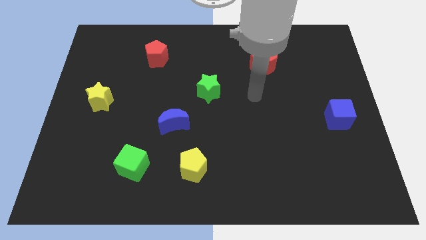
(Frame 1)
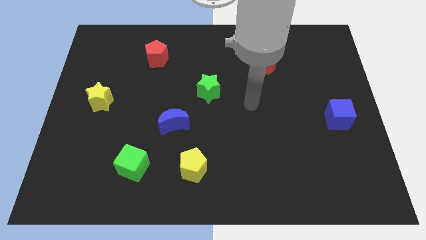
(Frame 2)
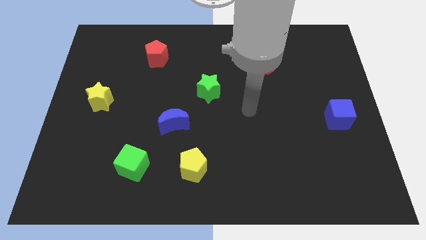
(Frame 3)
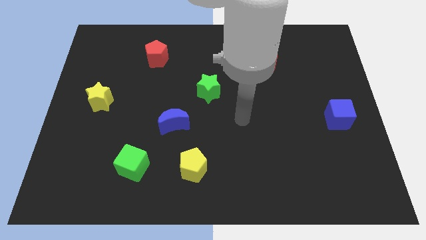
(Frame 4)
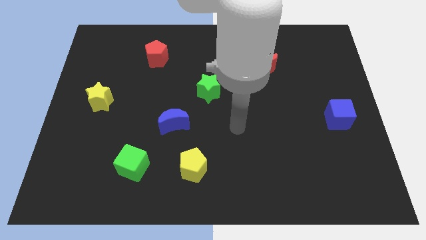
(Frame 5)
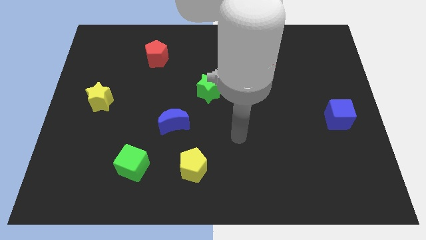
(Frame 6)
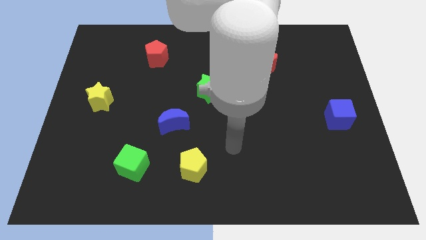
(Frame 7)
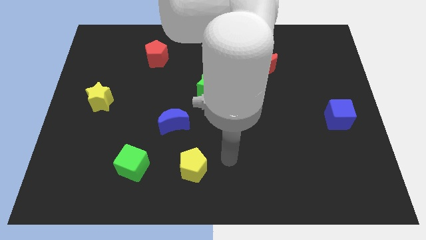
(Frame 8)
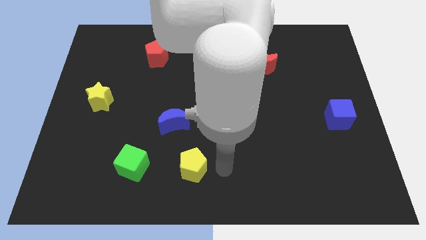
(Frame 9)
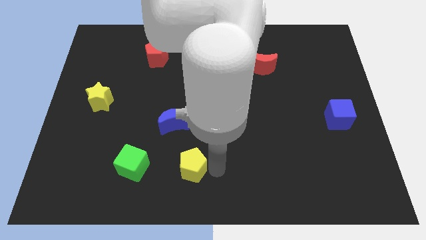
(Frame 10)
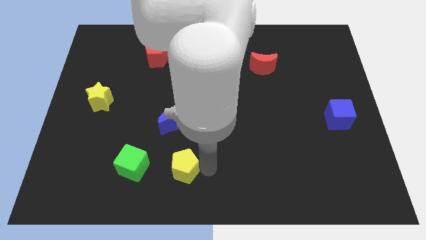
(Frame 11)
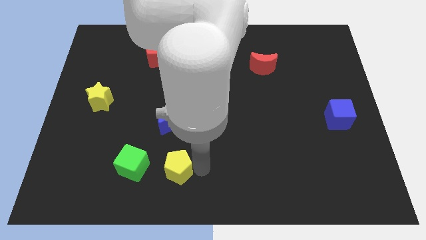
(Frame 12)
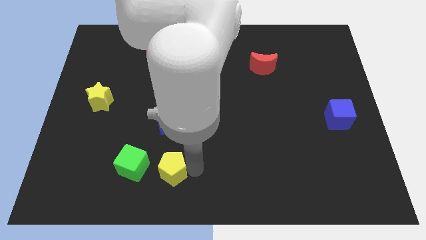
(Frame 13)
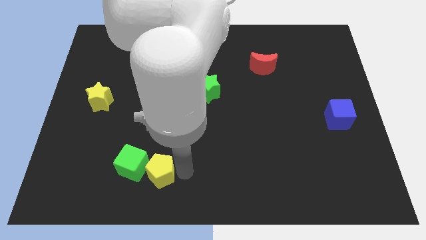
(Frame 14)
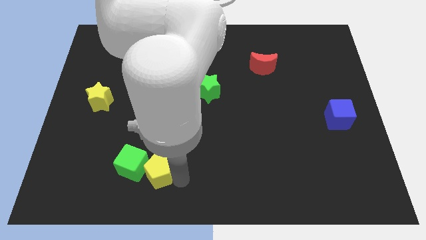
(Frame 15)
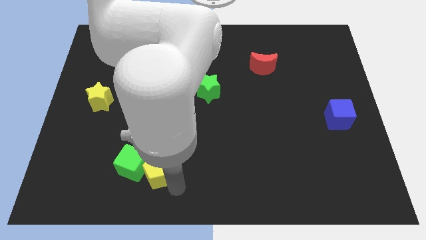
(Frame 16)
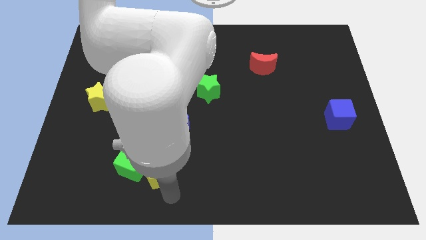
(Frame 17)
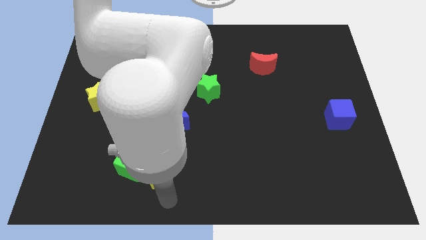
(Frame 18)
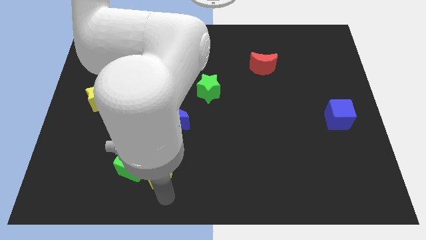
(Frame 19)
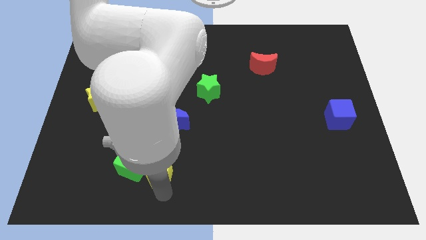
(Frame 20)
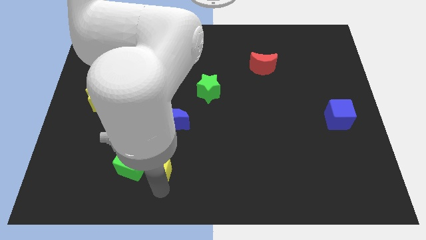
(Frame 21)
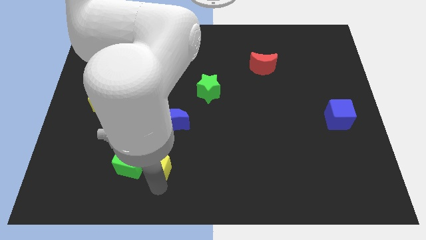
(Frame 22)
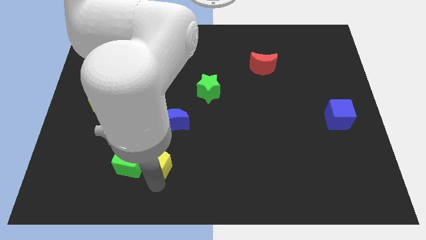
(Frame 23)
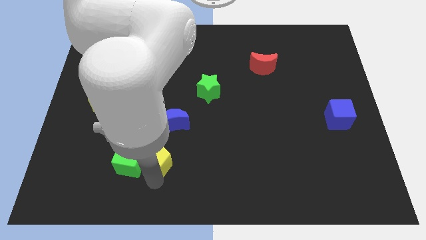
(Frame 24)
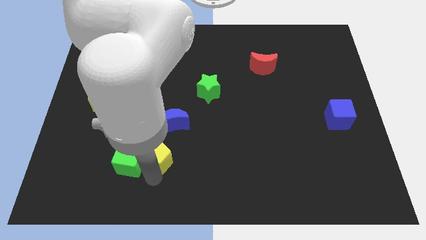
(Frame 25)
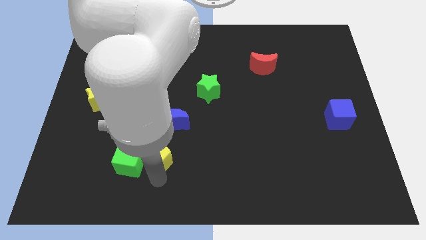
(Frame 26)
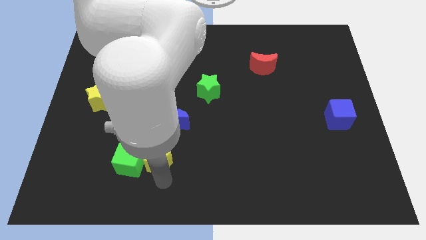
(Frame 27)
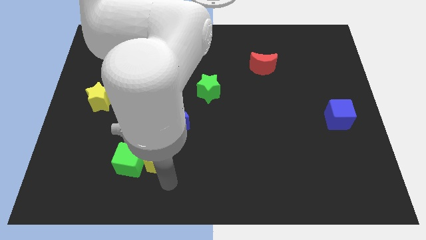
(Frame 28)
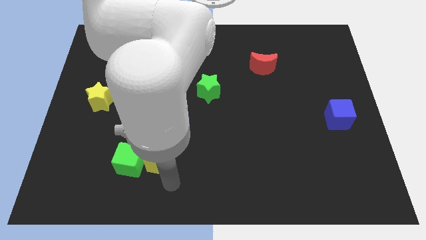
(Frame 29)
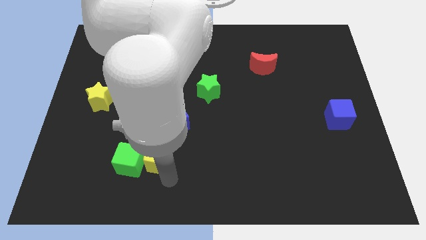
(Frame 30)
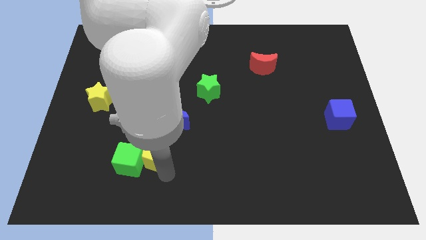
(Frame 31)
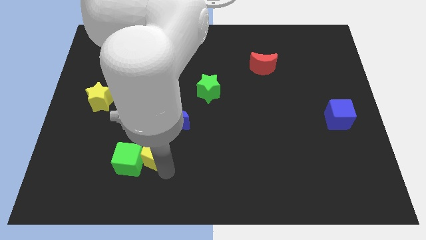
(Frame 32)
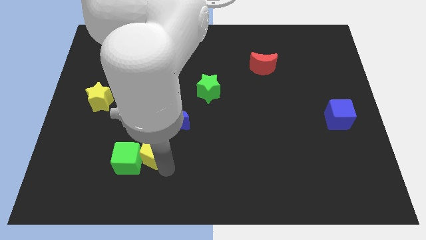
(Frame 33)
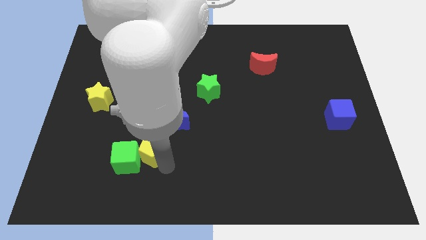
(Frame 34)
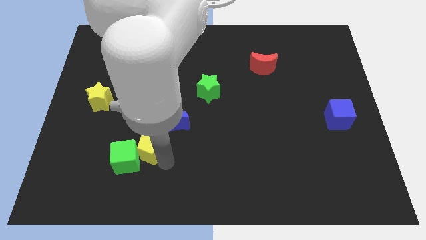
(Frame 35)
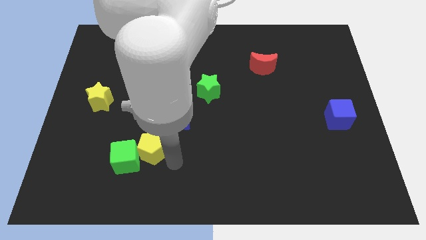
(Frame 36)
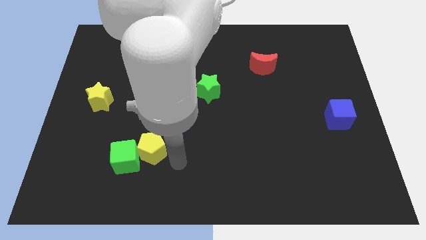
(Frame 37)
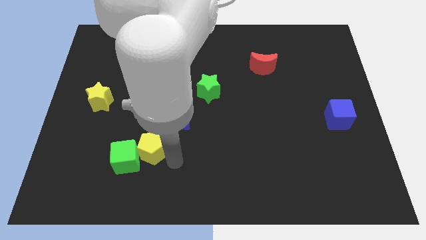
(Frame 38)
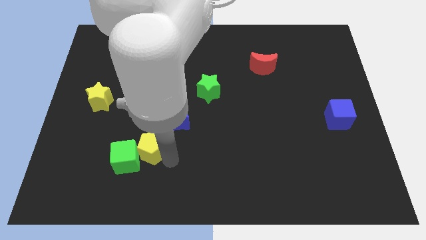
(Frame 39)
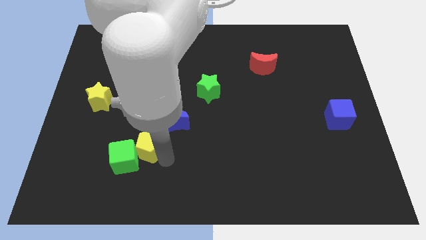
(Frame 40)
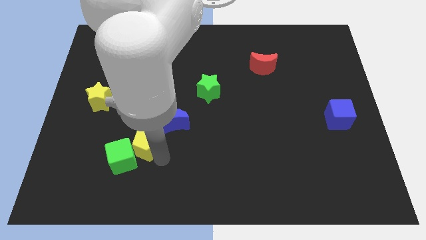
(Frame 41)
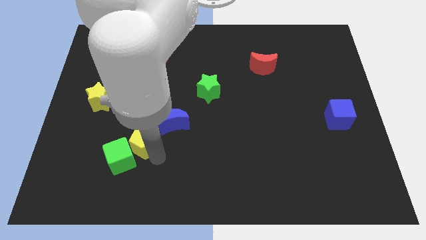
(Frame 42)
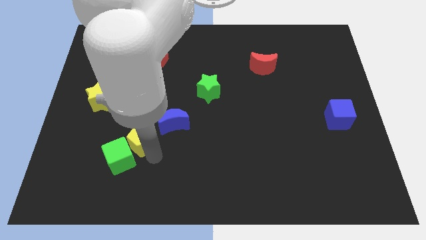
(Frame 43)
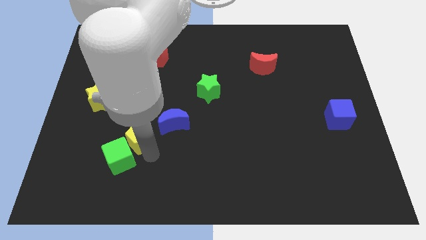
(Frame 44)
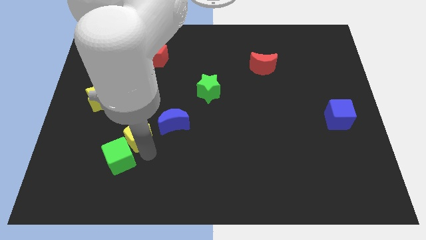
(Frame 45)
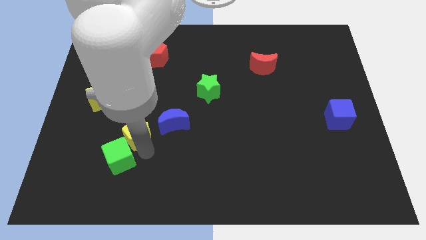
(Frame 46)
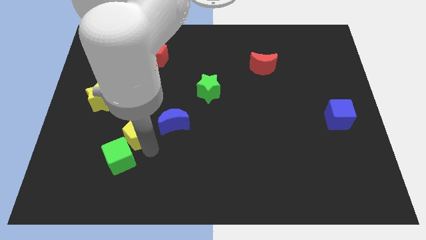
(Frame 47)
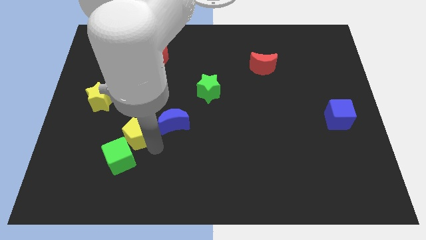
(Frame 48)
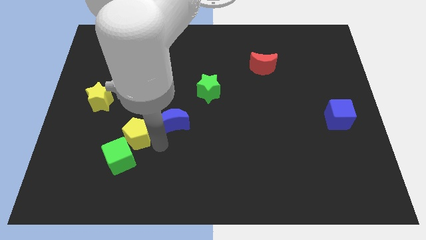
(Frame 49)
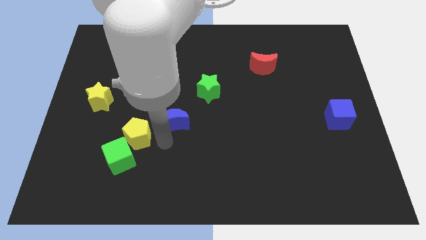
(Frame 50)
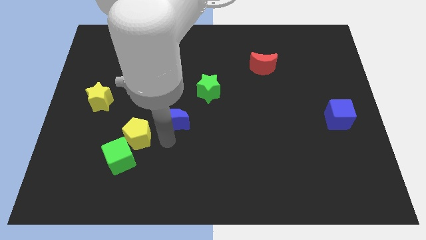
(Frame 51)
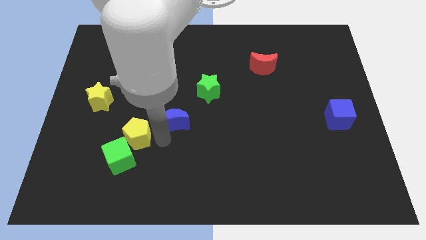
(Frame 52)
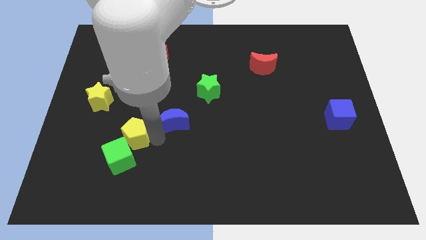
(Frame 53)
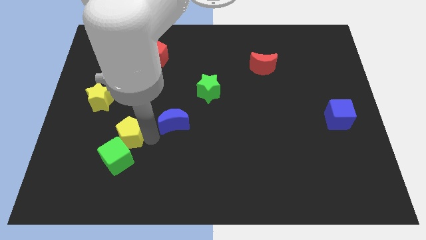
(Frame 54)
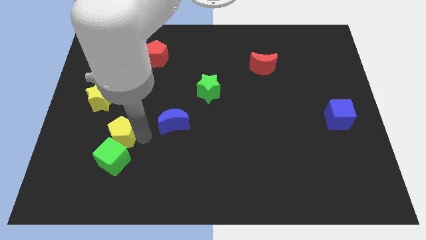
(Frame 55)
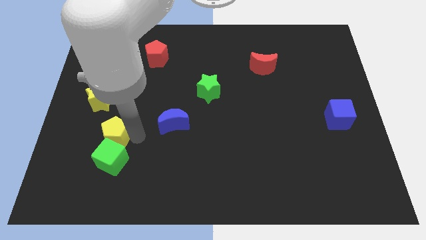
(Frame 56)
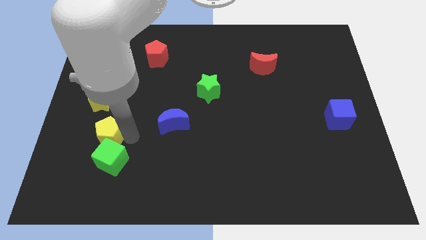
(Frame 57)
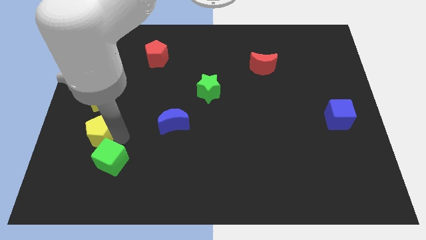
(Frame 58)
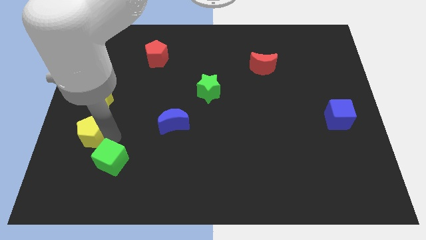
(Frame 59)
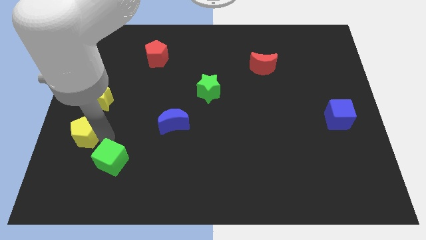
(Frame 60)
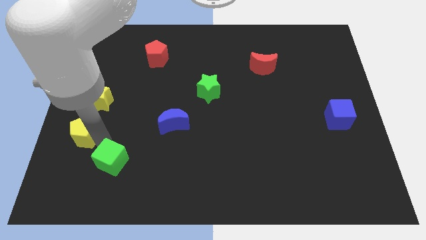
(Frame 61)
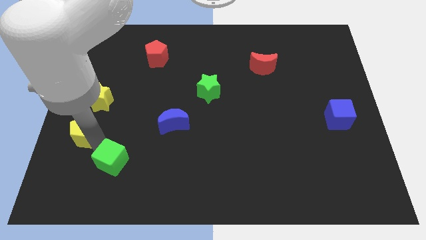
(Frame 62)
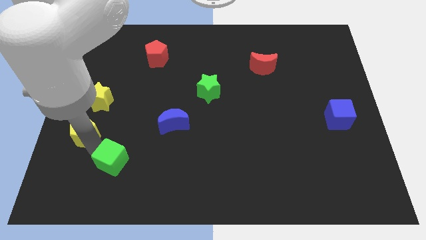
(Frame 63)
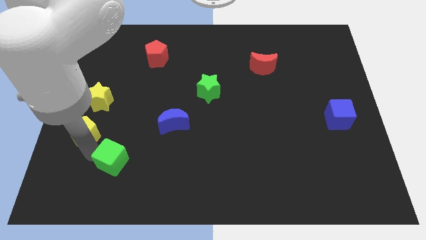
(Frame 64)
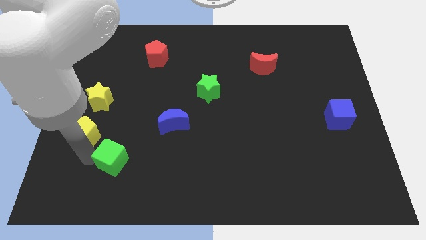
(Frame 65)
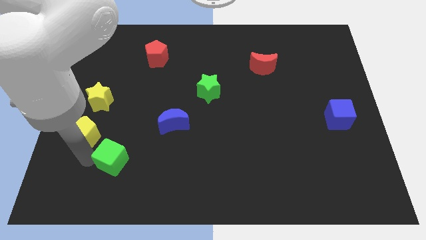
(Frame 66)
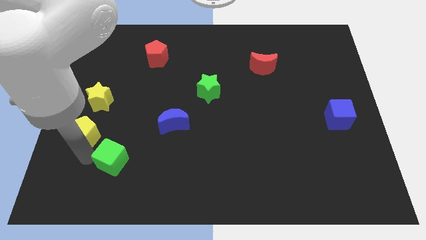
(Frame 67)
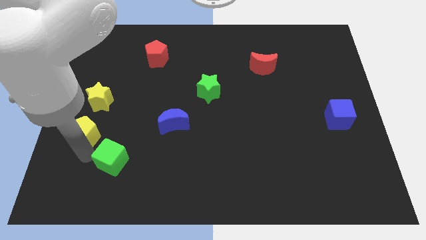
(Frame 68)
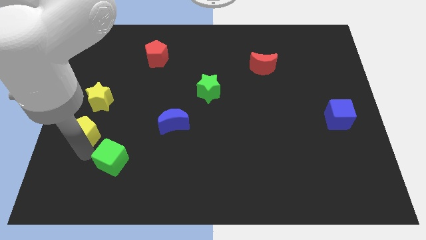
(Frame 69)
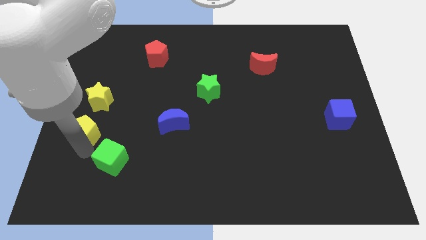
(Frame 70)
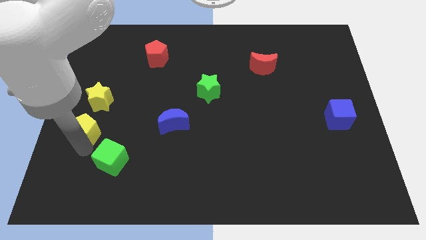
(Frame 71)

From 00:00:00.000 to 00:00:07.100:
put the yellow pentagon to the left side of the board
